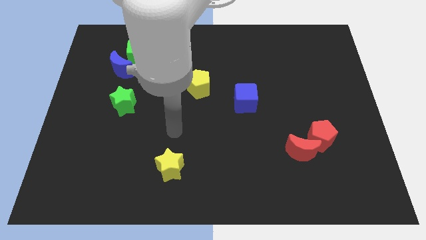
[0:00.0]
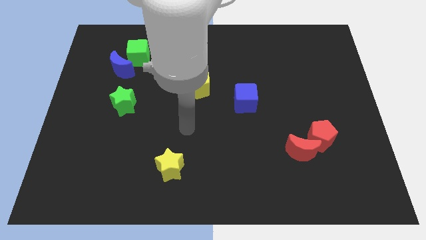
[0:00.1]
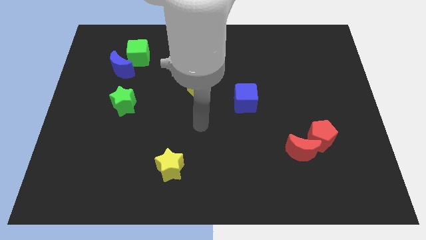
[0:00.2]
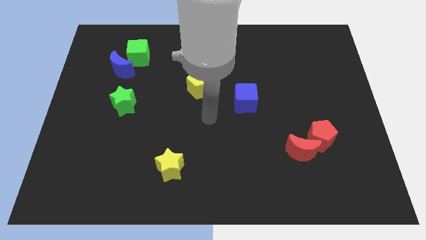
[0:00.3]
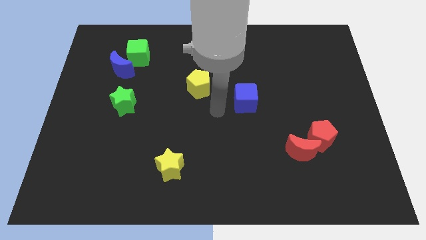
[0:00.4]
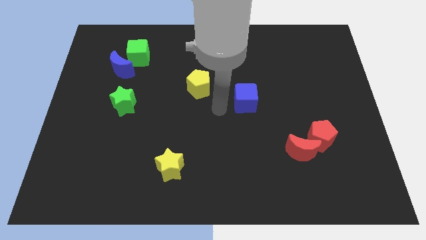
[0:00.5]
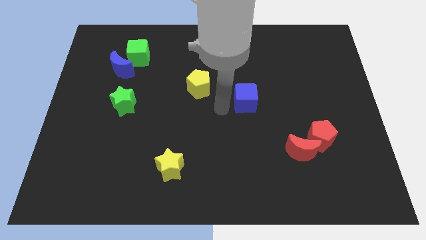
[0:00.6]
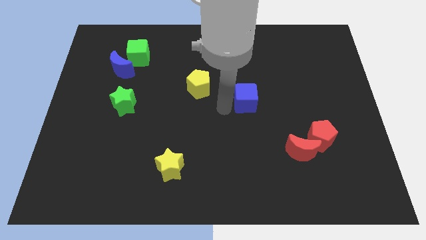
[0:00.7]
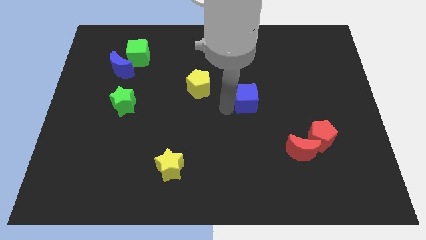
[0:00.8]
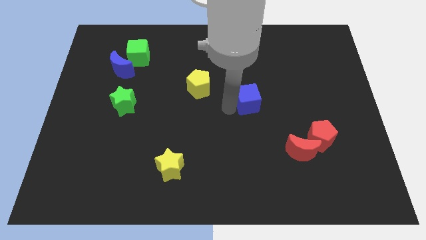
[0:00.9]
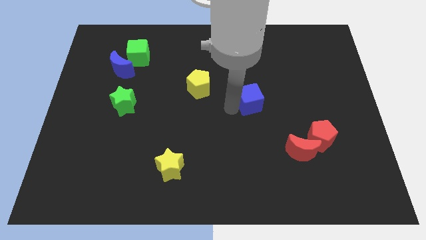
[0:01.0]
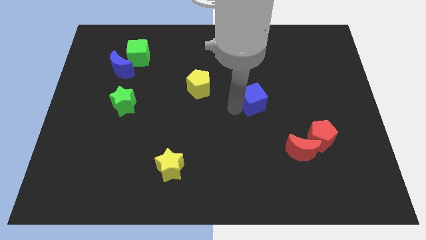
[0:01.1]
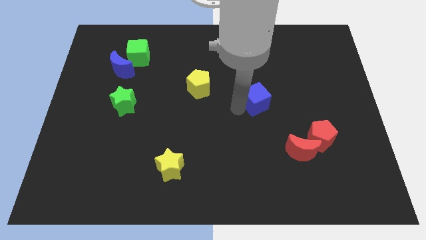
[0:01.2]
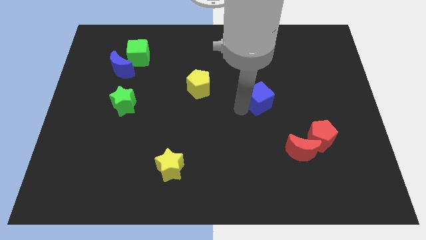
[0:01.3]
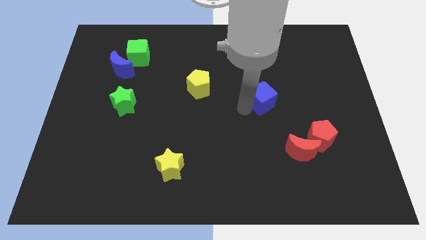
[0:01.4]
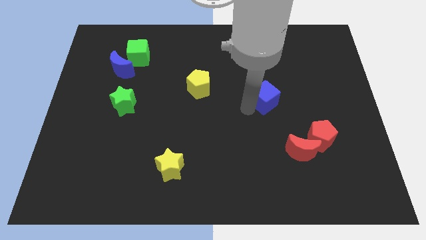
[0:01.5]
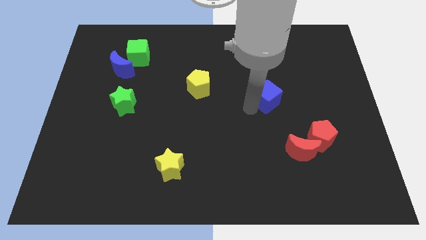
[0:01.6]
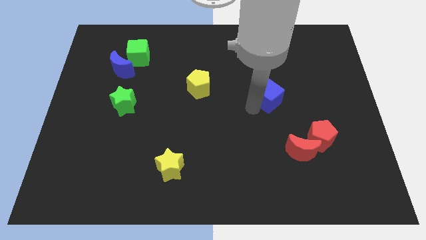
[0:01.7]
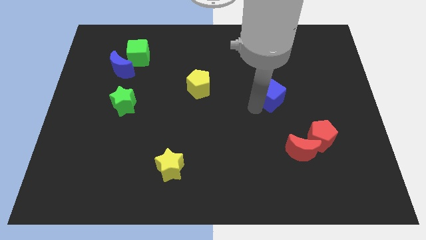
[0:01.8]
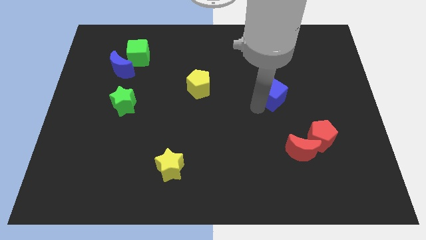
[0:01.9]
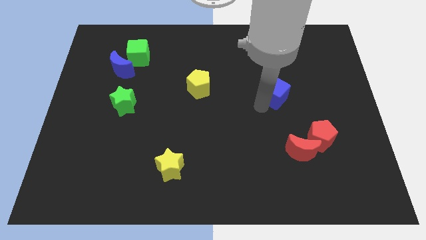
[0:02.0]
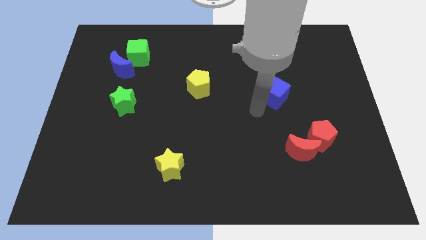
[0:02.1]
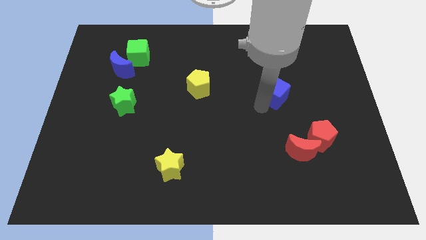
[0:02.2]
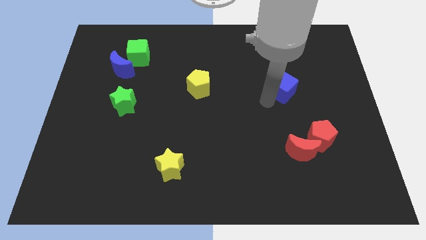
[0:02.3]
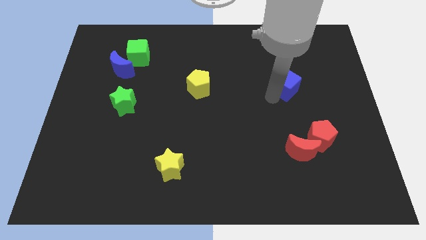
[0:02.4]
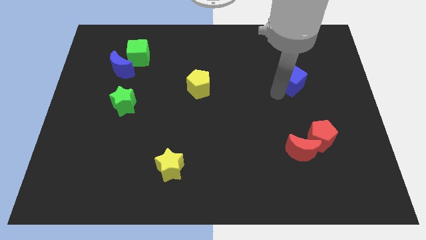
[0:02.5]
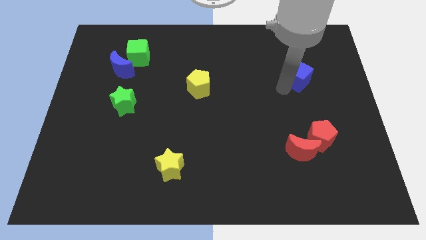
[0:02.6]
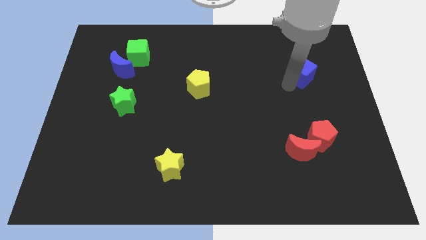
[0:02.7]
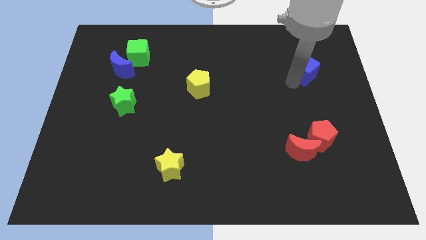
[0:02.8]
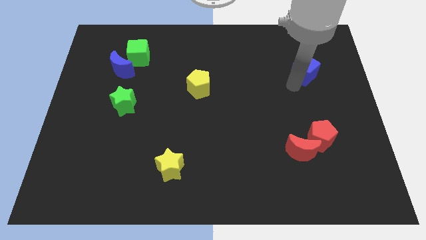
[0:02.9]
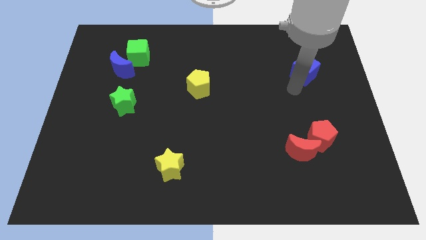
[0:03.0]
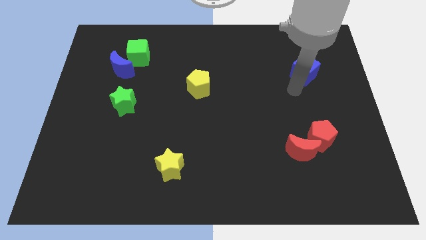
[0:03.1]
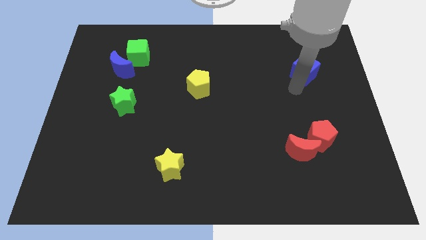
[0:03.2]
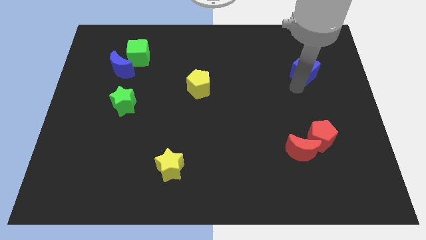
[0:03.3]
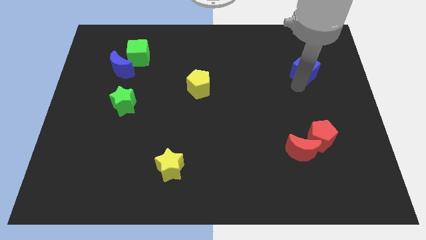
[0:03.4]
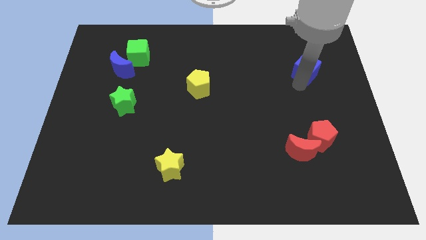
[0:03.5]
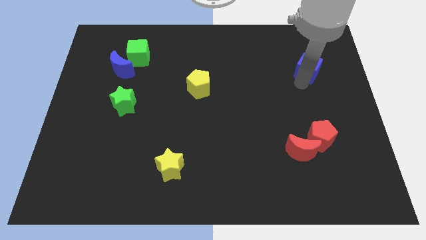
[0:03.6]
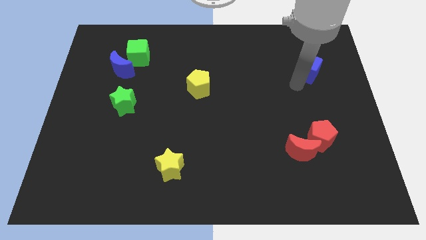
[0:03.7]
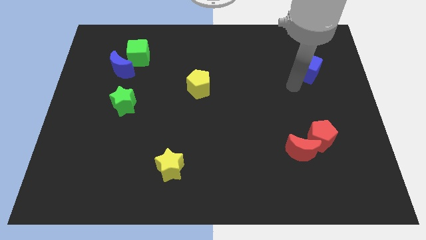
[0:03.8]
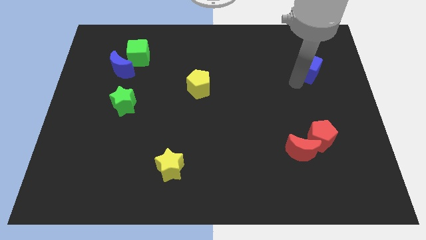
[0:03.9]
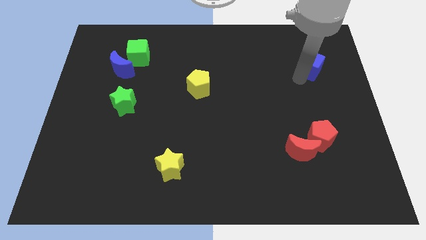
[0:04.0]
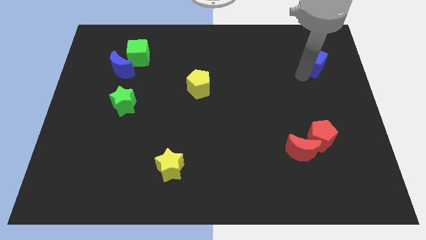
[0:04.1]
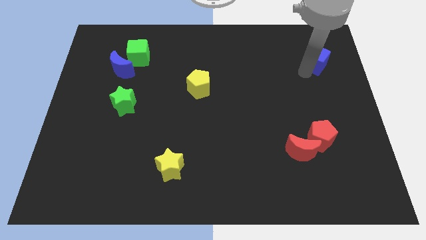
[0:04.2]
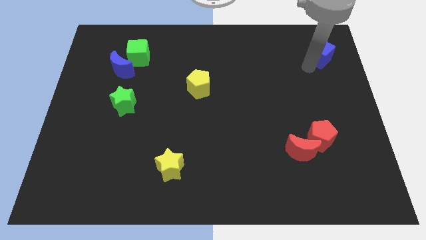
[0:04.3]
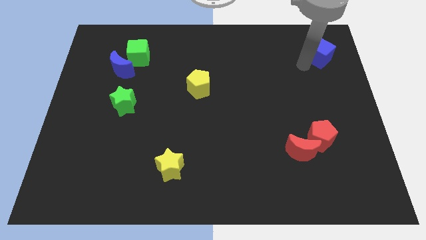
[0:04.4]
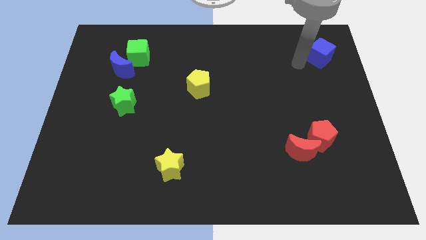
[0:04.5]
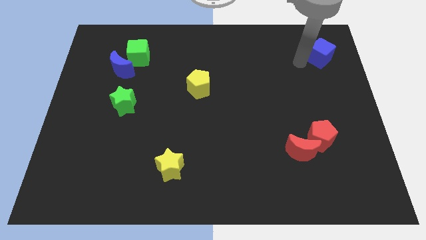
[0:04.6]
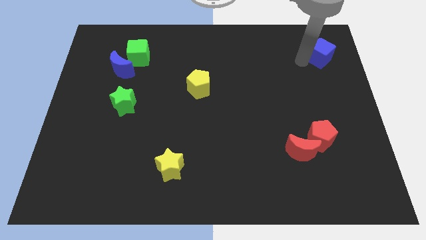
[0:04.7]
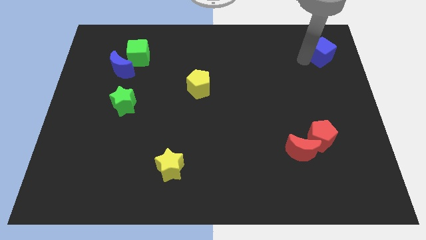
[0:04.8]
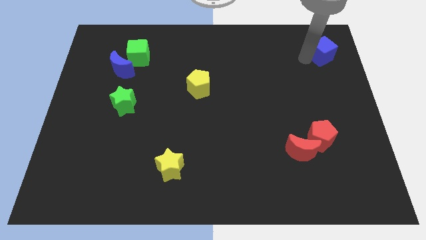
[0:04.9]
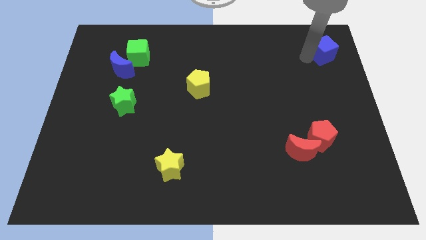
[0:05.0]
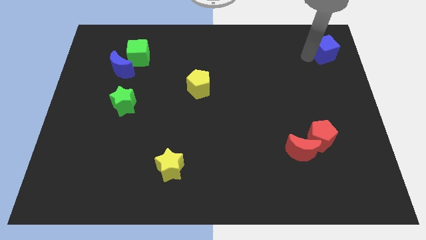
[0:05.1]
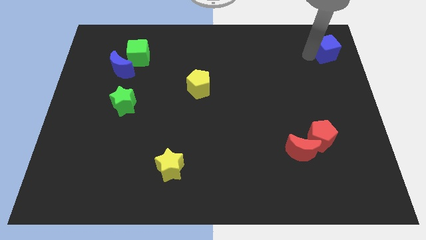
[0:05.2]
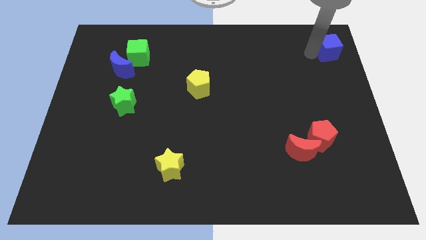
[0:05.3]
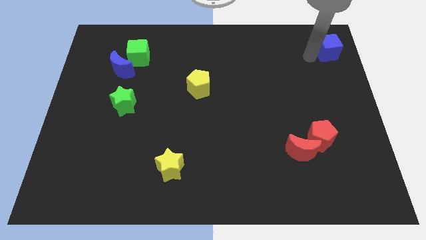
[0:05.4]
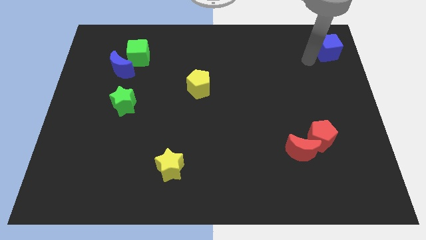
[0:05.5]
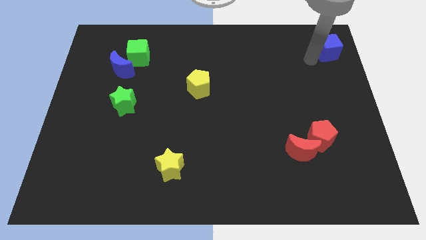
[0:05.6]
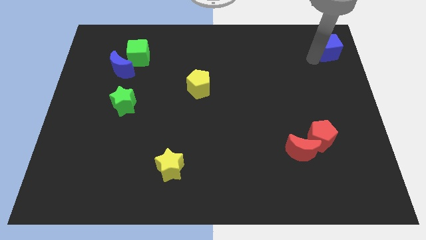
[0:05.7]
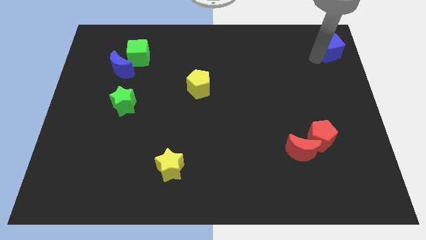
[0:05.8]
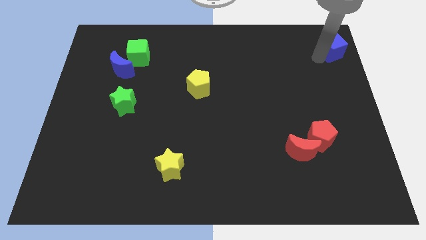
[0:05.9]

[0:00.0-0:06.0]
push the blue cube to the top right
